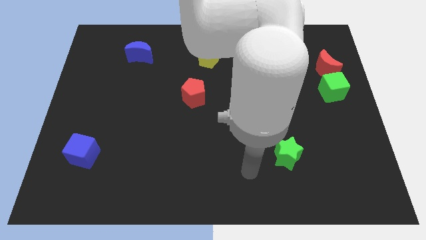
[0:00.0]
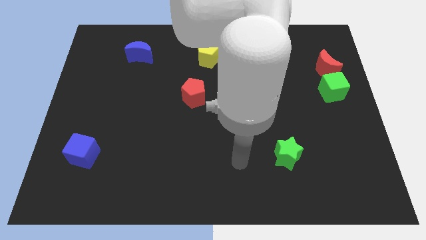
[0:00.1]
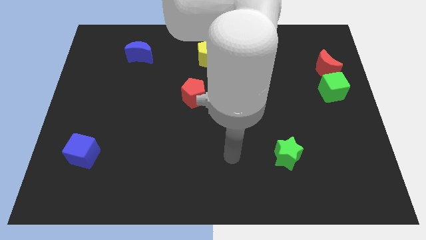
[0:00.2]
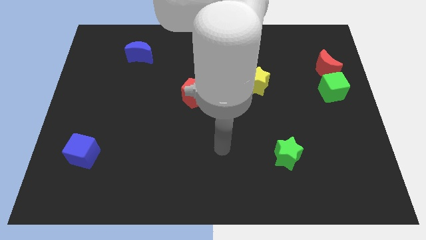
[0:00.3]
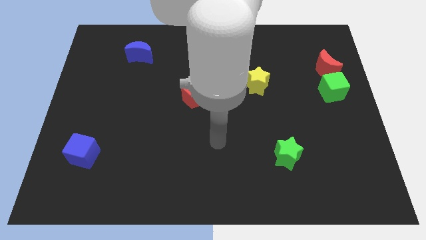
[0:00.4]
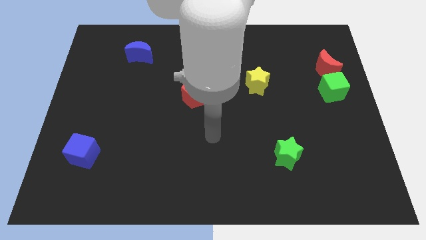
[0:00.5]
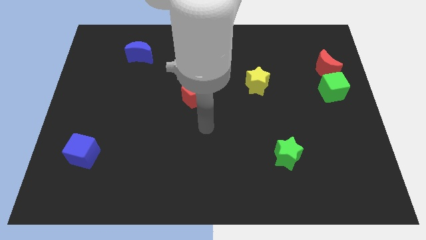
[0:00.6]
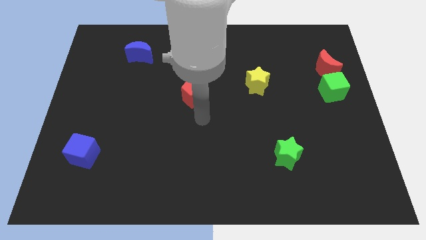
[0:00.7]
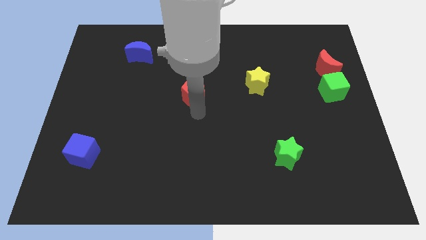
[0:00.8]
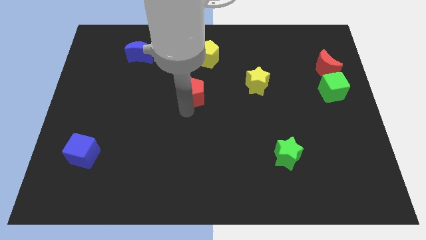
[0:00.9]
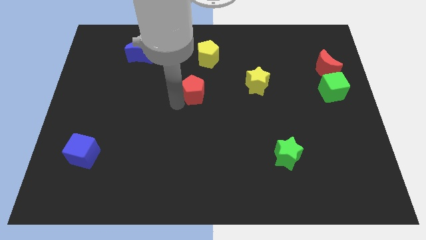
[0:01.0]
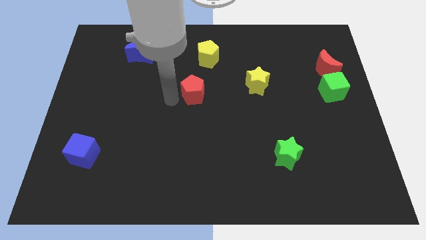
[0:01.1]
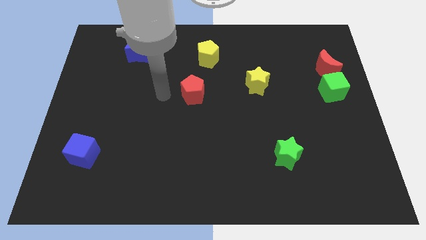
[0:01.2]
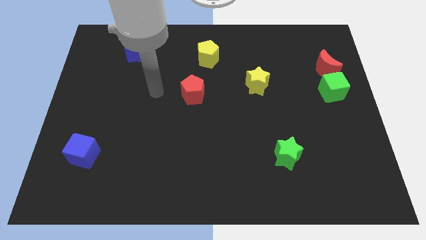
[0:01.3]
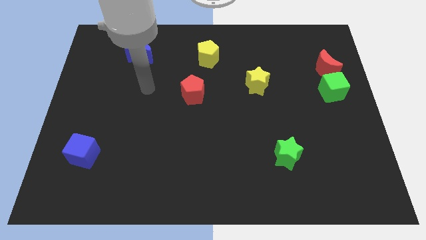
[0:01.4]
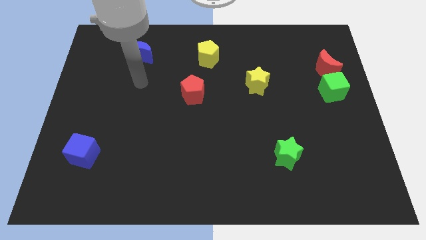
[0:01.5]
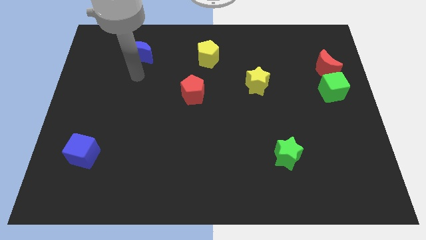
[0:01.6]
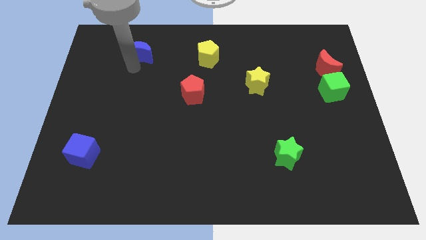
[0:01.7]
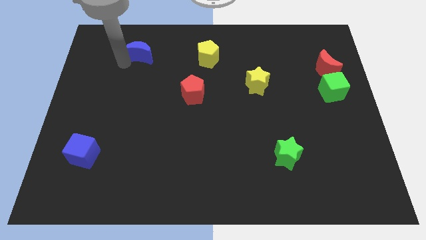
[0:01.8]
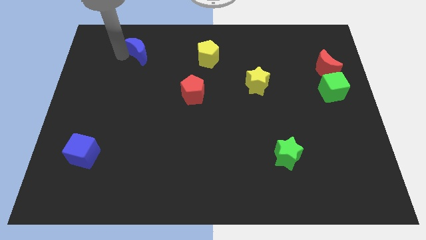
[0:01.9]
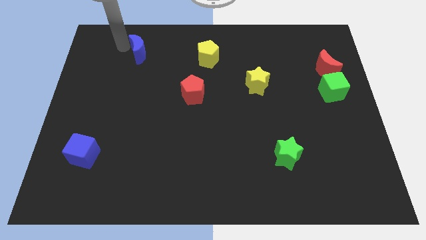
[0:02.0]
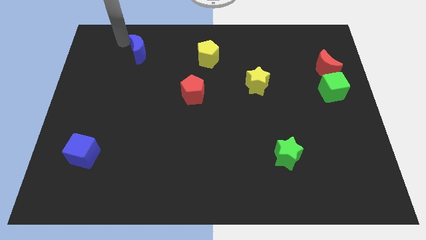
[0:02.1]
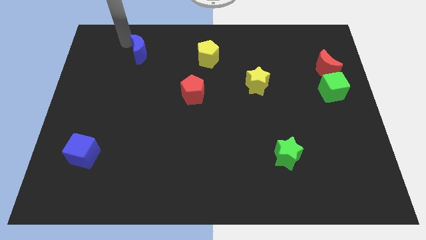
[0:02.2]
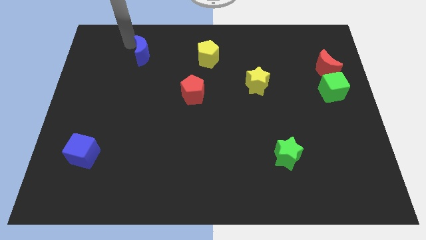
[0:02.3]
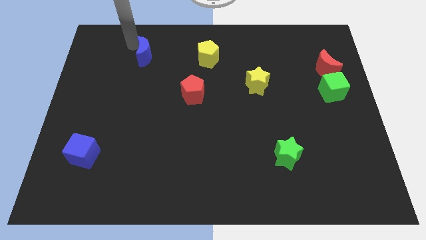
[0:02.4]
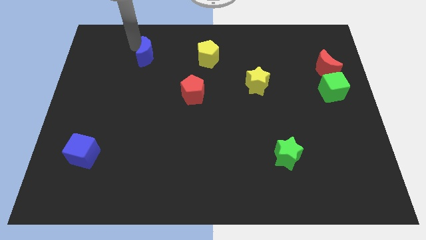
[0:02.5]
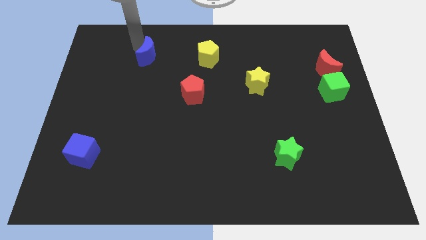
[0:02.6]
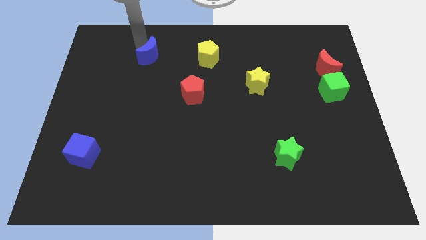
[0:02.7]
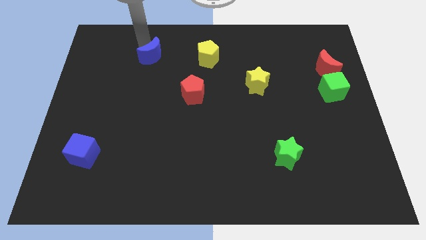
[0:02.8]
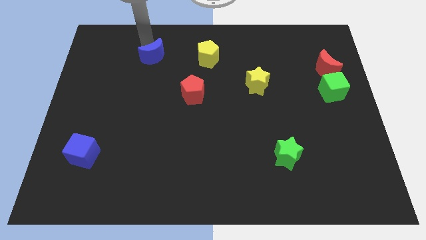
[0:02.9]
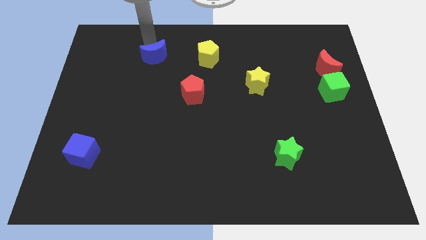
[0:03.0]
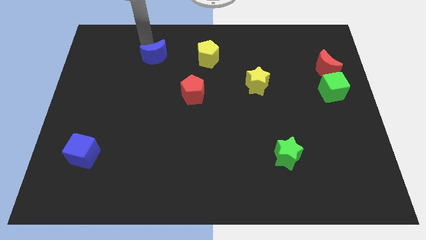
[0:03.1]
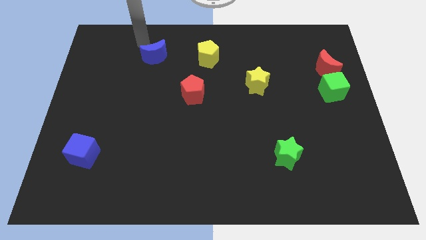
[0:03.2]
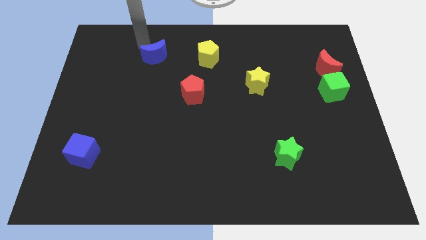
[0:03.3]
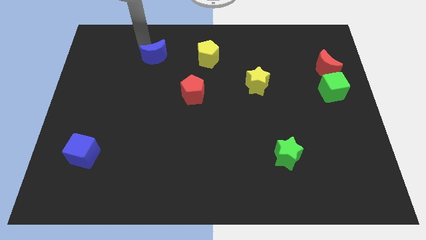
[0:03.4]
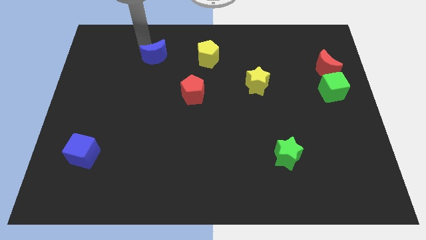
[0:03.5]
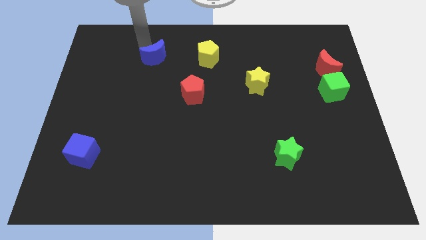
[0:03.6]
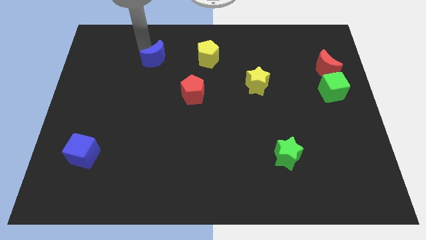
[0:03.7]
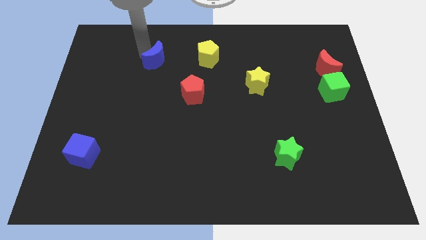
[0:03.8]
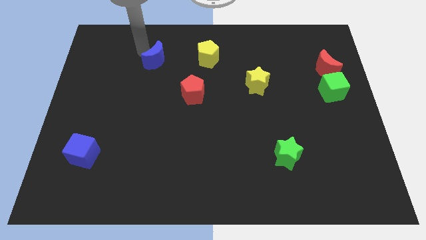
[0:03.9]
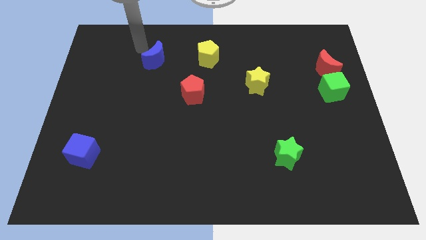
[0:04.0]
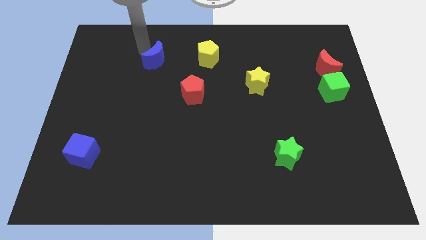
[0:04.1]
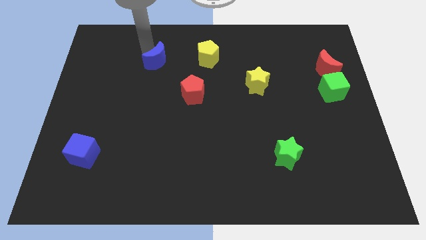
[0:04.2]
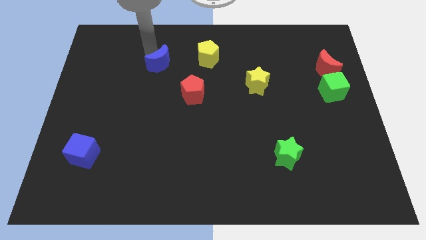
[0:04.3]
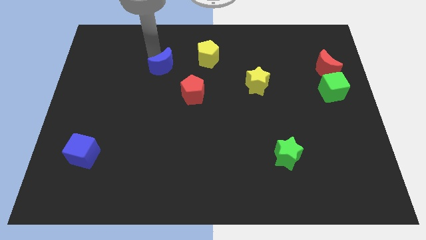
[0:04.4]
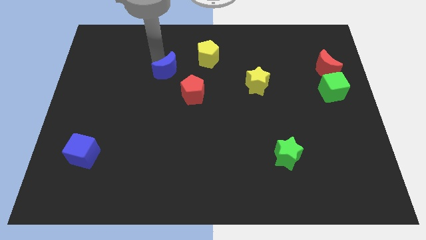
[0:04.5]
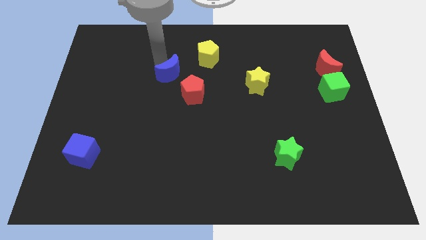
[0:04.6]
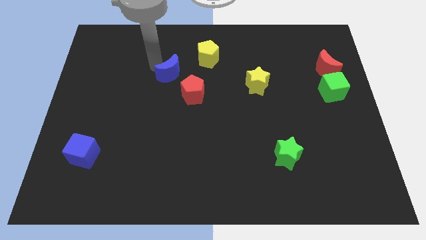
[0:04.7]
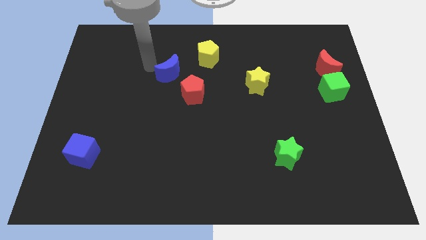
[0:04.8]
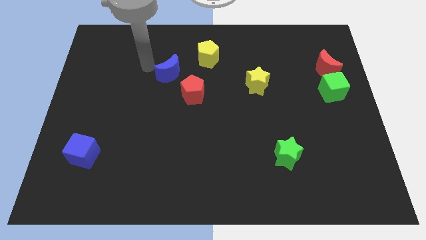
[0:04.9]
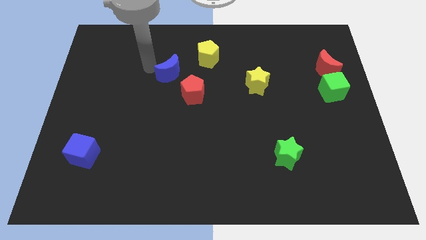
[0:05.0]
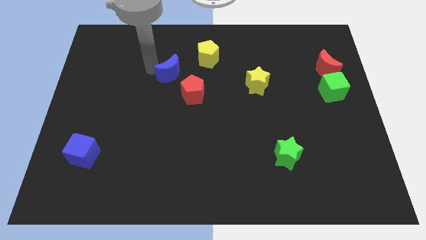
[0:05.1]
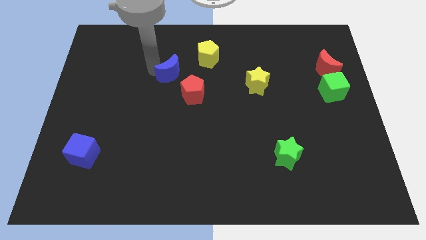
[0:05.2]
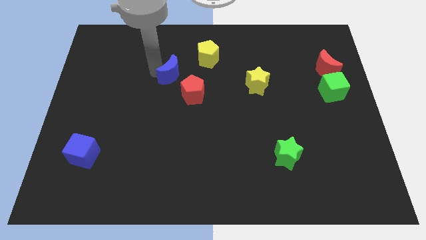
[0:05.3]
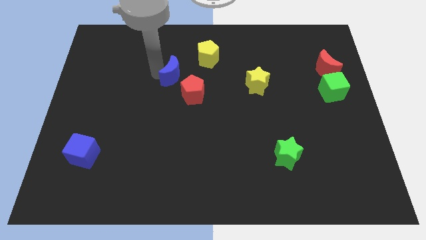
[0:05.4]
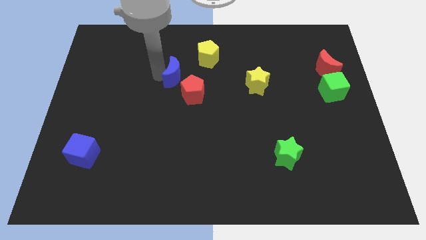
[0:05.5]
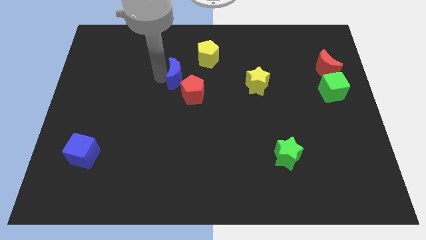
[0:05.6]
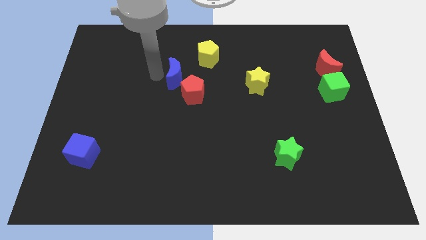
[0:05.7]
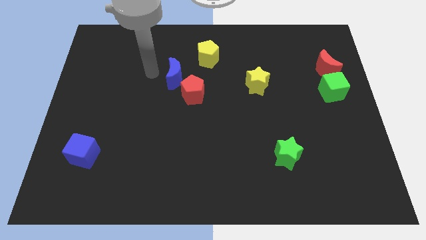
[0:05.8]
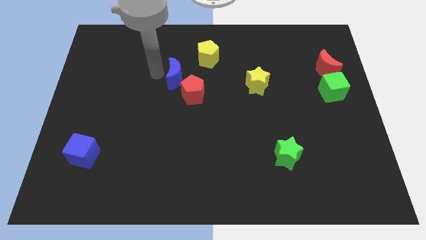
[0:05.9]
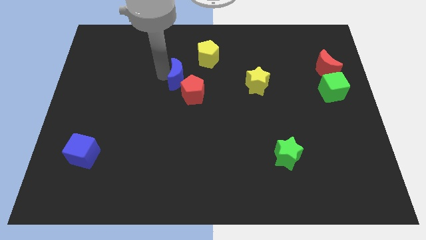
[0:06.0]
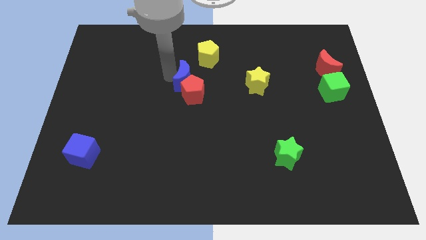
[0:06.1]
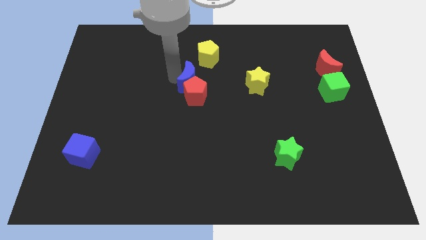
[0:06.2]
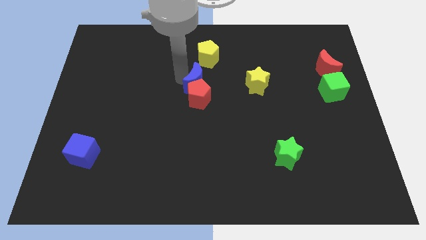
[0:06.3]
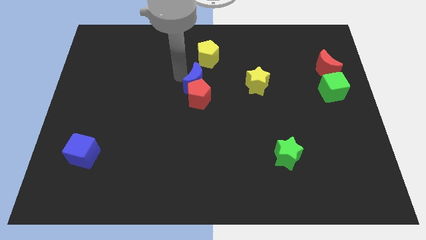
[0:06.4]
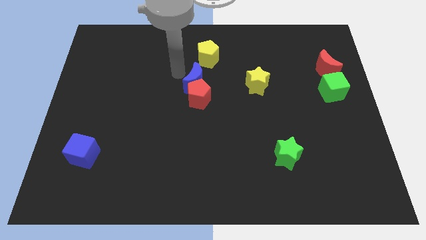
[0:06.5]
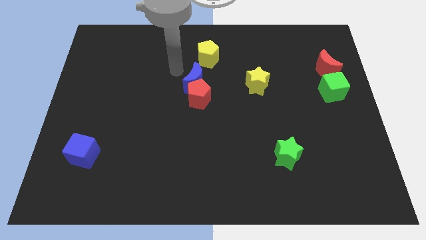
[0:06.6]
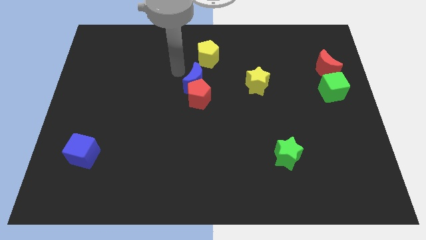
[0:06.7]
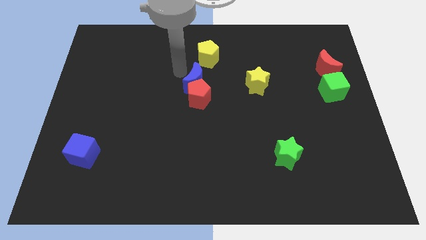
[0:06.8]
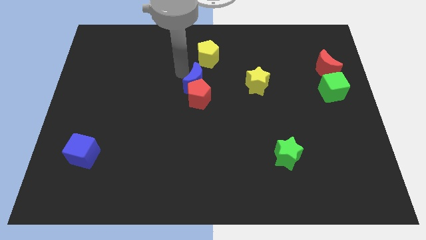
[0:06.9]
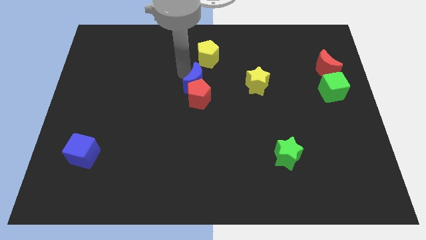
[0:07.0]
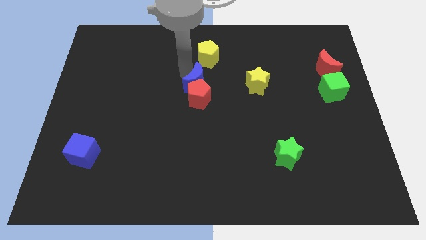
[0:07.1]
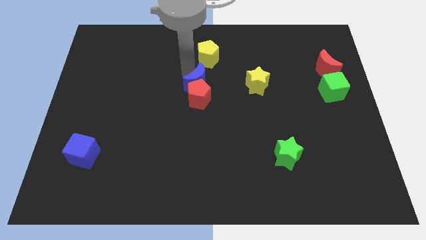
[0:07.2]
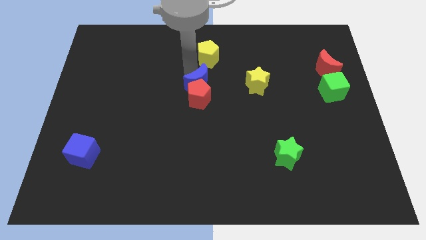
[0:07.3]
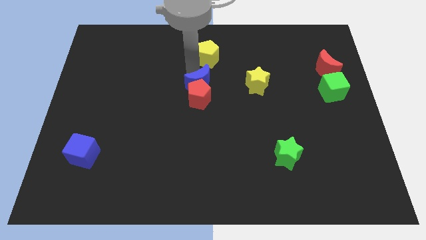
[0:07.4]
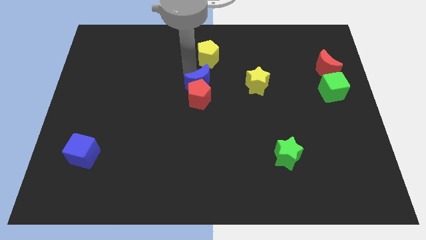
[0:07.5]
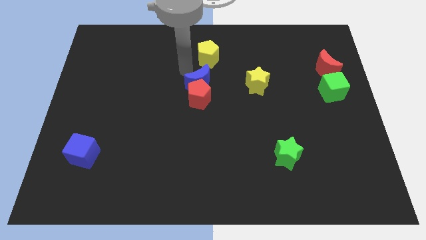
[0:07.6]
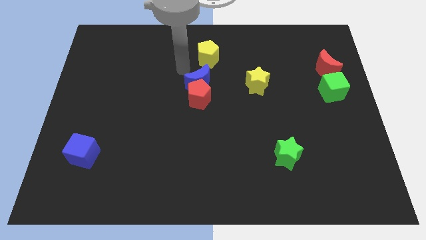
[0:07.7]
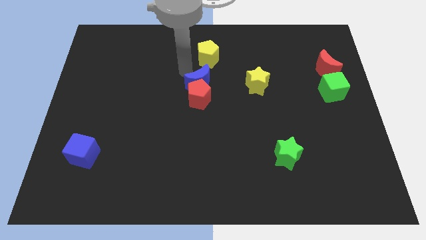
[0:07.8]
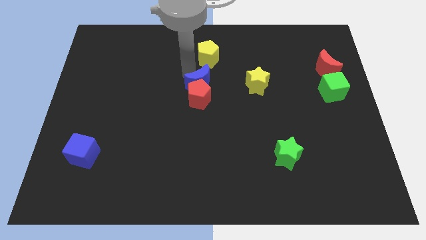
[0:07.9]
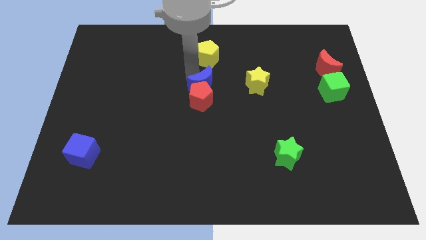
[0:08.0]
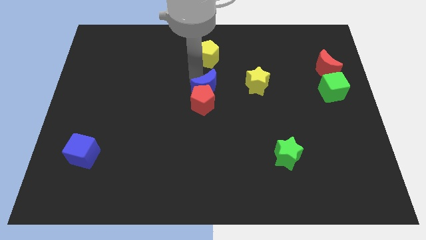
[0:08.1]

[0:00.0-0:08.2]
slide the blue moon downwards and then right
